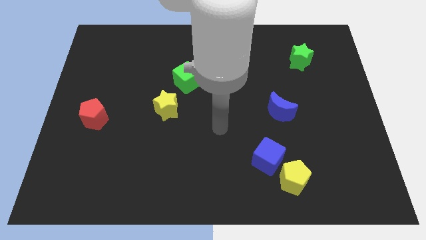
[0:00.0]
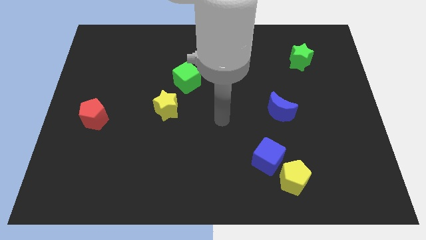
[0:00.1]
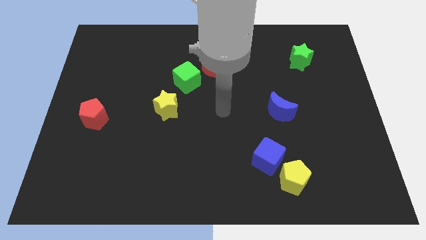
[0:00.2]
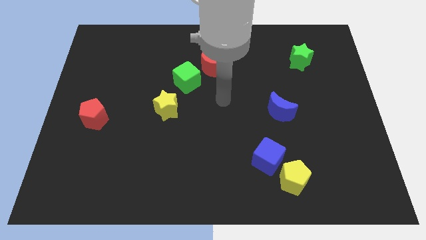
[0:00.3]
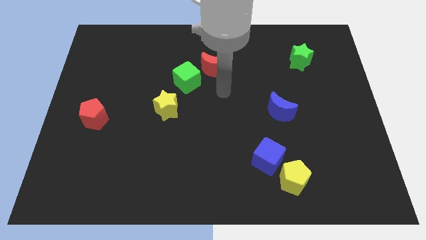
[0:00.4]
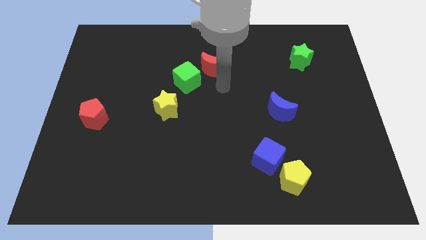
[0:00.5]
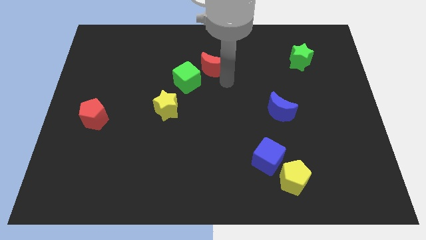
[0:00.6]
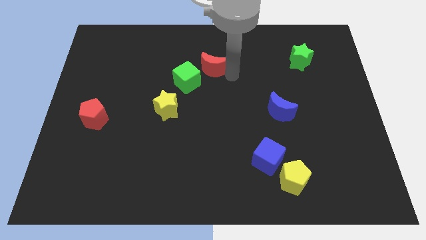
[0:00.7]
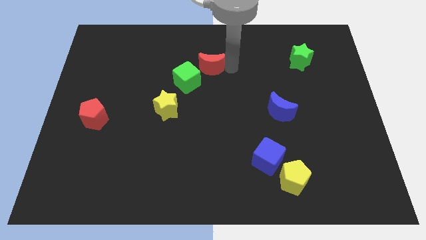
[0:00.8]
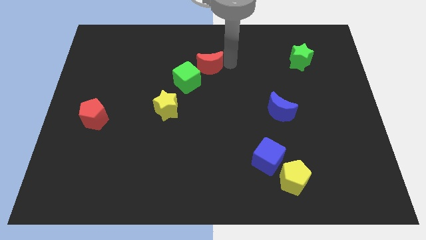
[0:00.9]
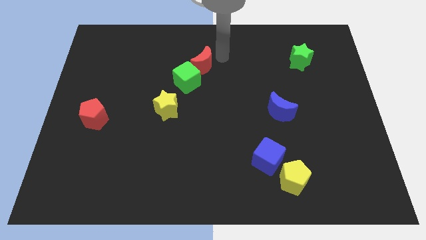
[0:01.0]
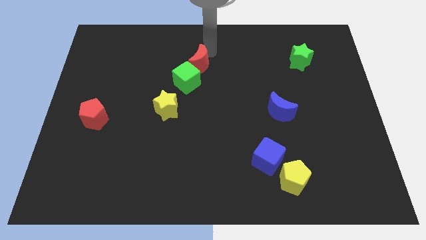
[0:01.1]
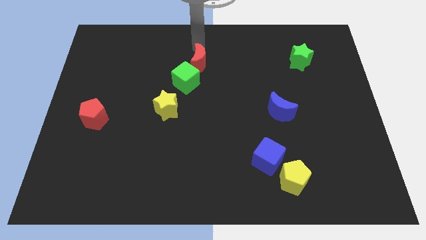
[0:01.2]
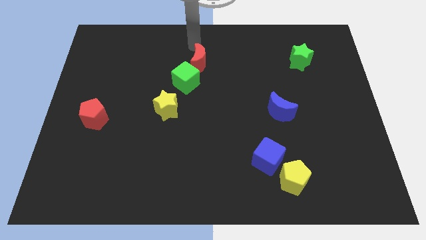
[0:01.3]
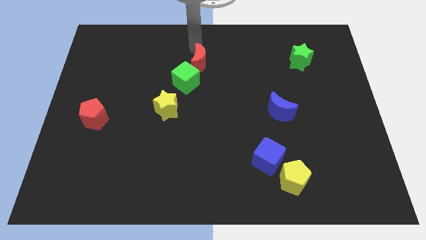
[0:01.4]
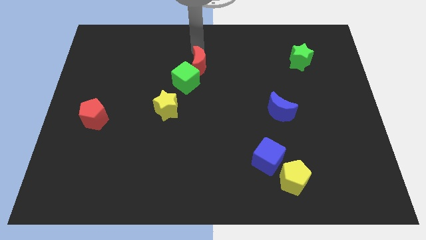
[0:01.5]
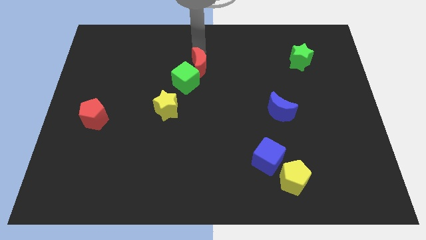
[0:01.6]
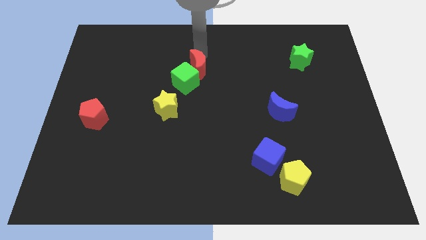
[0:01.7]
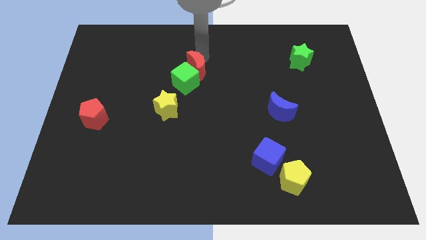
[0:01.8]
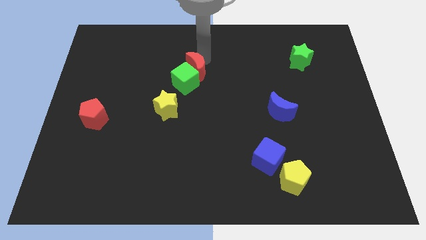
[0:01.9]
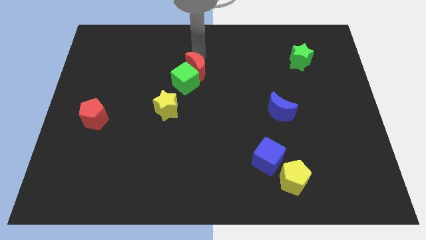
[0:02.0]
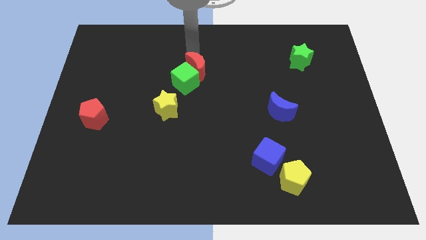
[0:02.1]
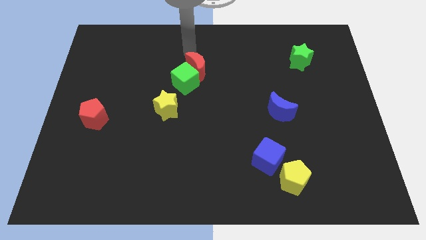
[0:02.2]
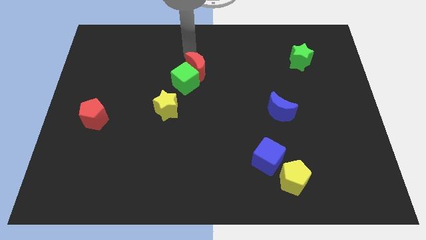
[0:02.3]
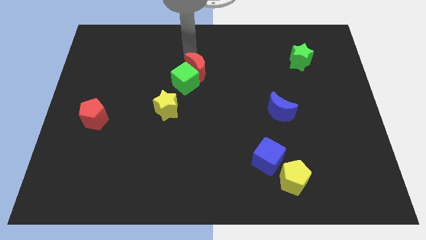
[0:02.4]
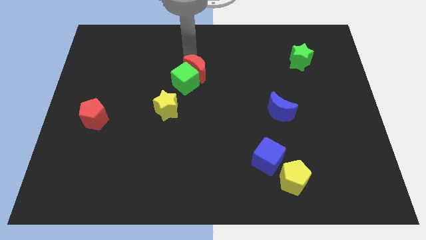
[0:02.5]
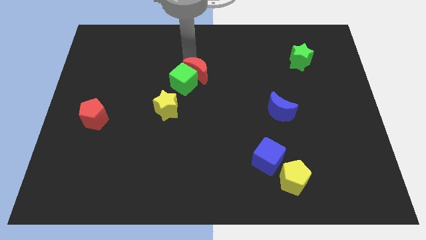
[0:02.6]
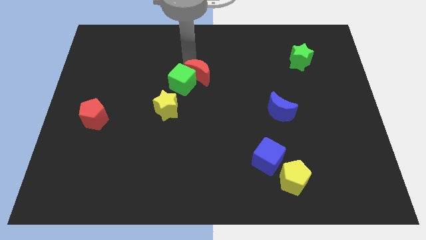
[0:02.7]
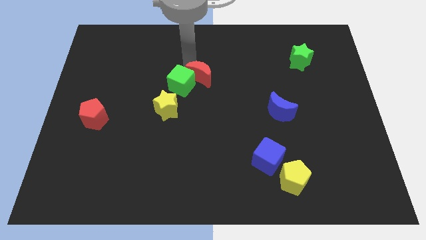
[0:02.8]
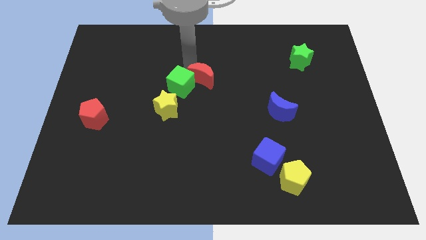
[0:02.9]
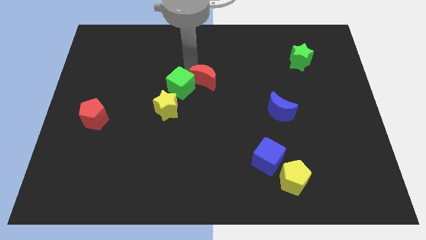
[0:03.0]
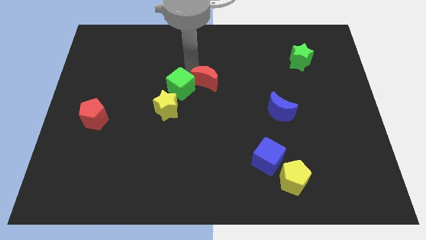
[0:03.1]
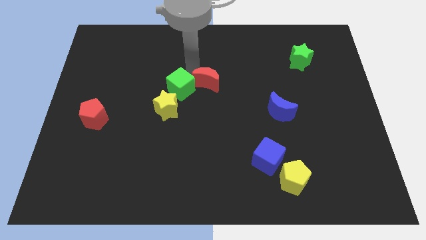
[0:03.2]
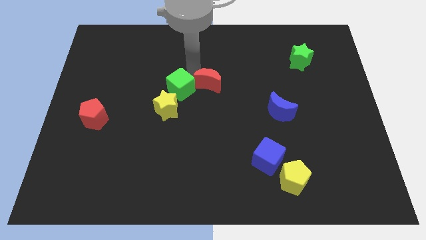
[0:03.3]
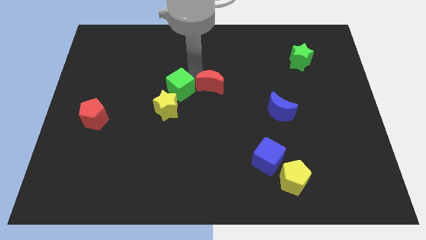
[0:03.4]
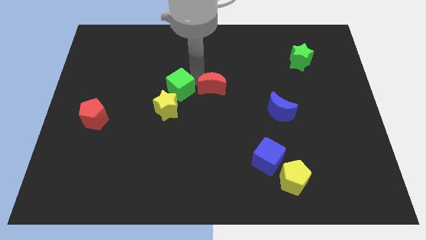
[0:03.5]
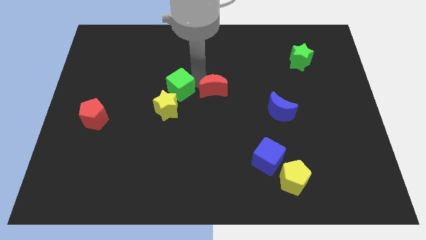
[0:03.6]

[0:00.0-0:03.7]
slightly move the red moon down

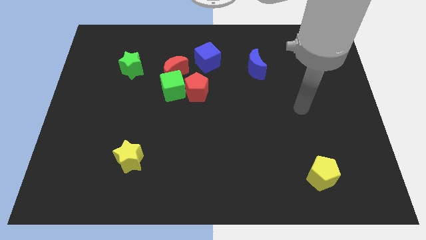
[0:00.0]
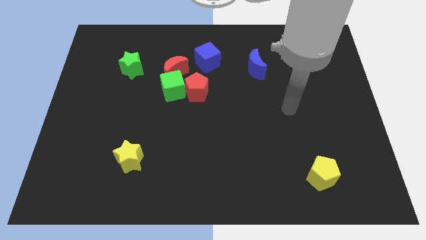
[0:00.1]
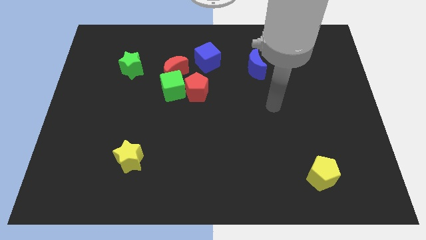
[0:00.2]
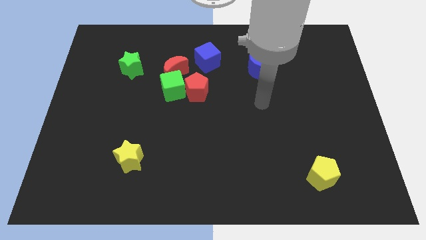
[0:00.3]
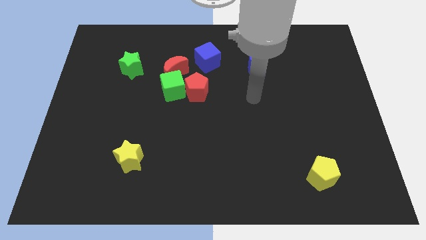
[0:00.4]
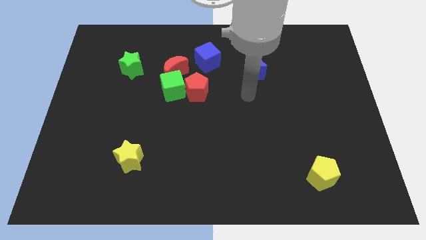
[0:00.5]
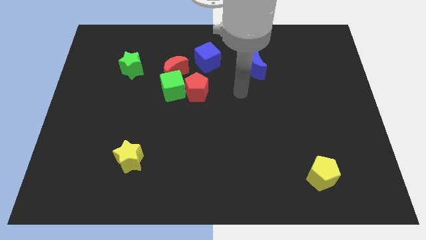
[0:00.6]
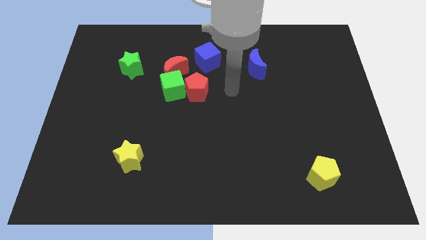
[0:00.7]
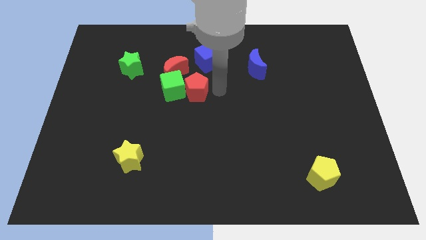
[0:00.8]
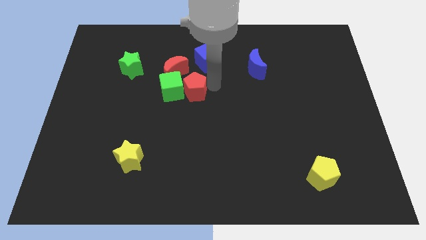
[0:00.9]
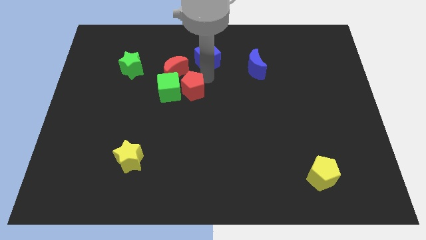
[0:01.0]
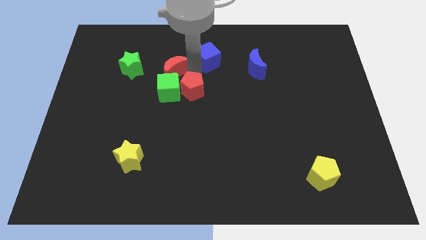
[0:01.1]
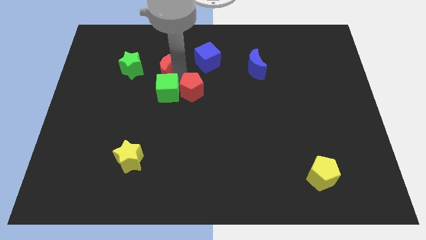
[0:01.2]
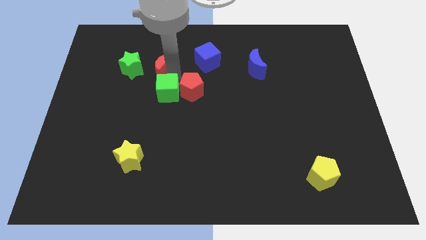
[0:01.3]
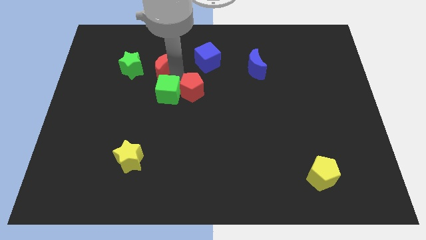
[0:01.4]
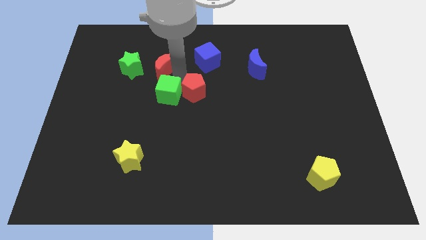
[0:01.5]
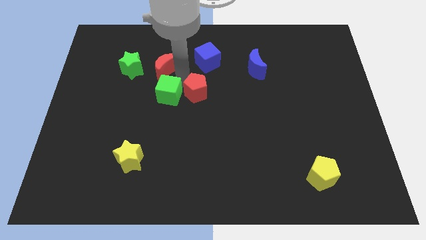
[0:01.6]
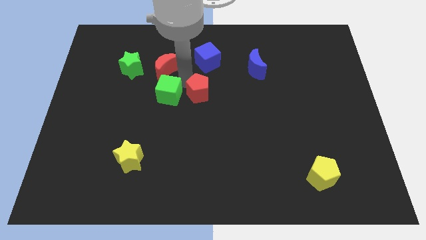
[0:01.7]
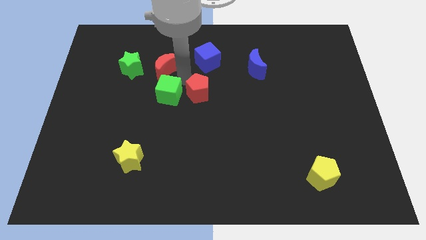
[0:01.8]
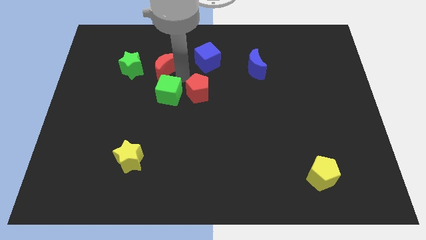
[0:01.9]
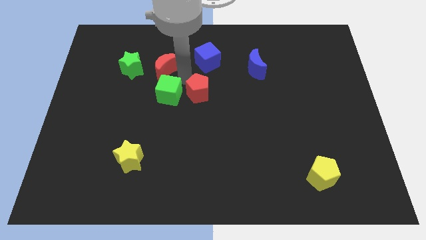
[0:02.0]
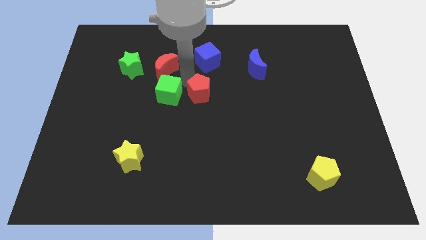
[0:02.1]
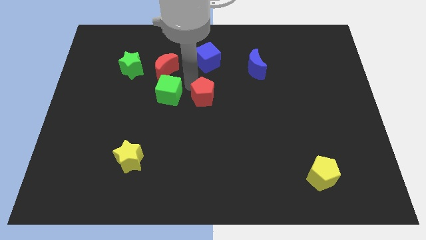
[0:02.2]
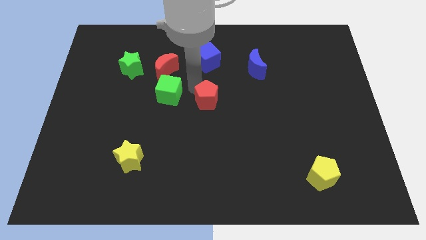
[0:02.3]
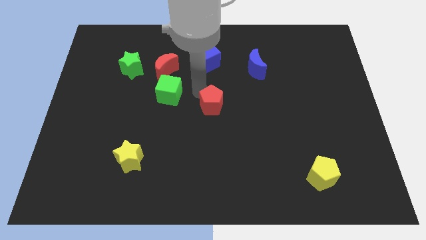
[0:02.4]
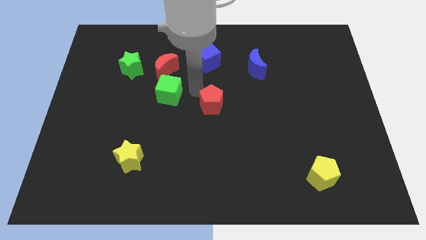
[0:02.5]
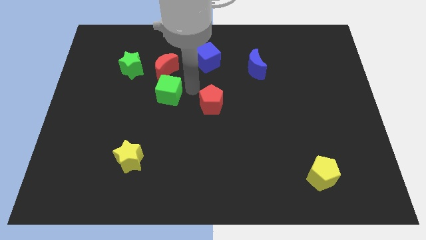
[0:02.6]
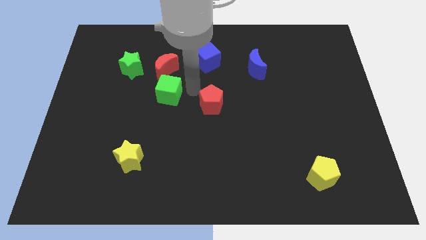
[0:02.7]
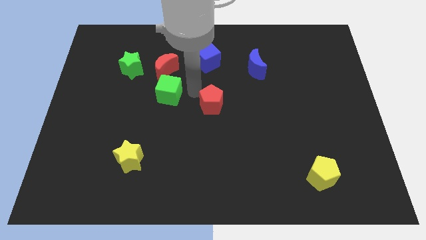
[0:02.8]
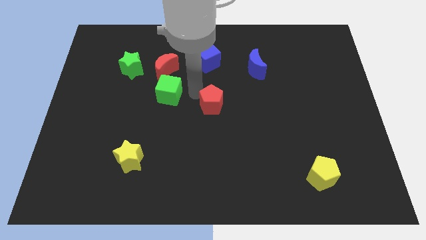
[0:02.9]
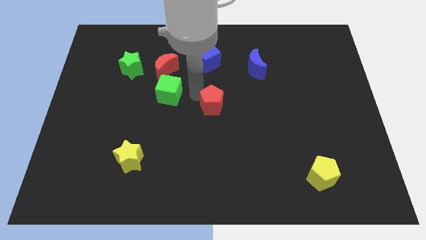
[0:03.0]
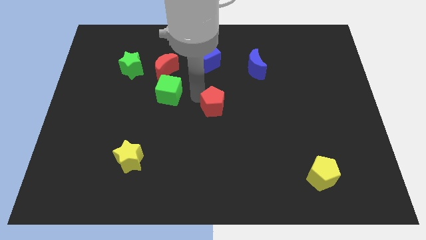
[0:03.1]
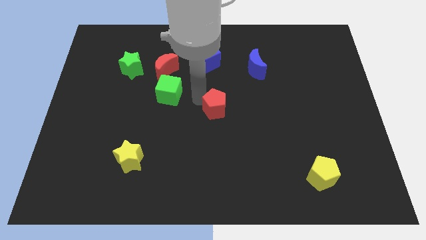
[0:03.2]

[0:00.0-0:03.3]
push the red pentagon slightly diagonally down and right

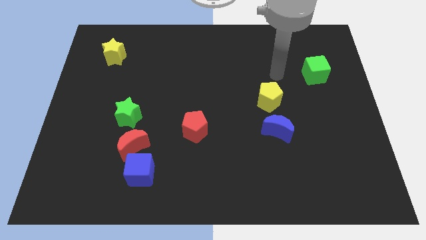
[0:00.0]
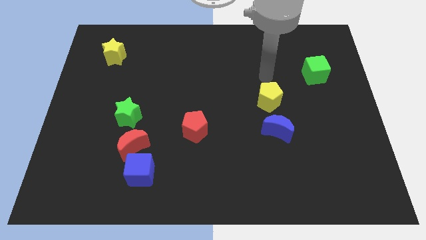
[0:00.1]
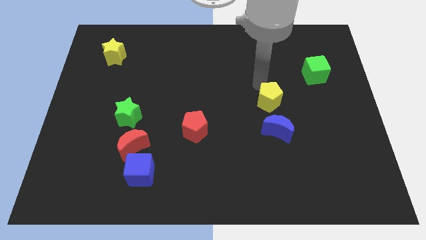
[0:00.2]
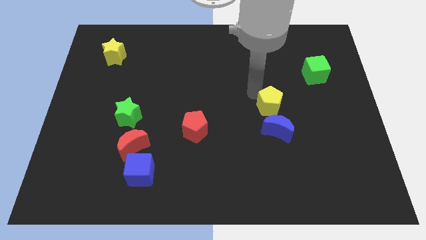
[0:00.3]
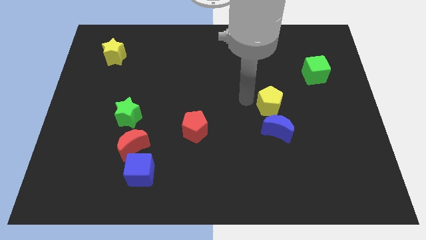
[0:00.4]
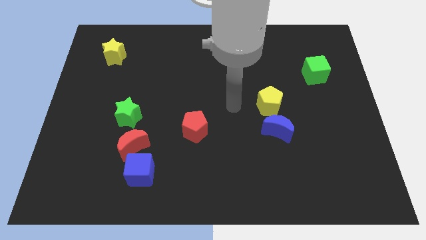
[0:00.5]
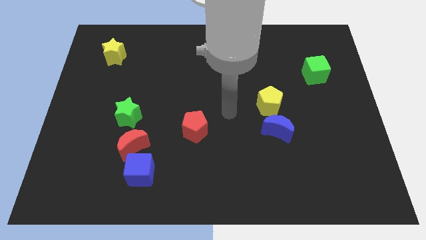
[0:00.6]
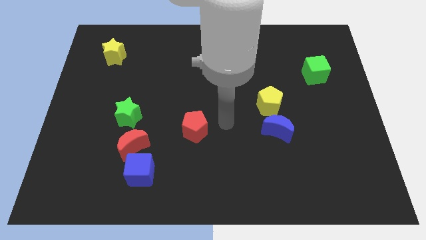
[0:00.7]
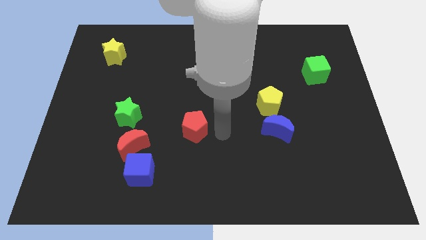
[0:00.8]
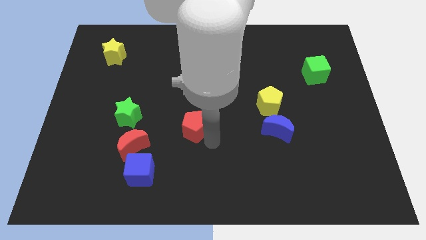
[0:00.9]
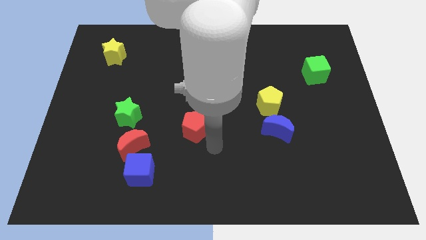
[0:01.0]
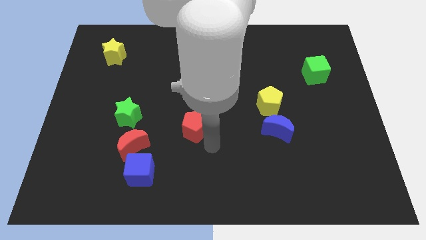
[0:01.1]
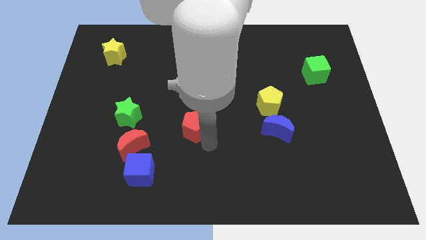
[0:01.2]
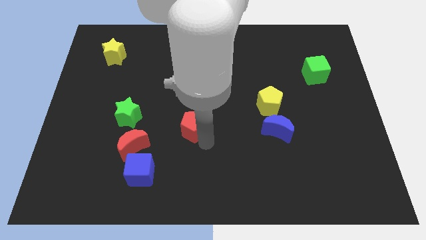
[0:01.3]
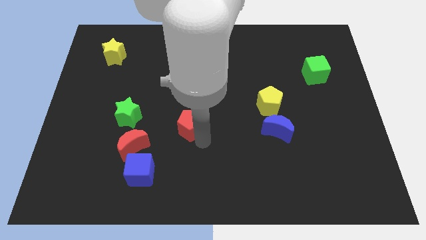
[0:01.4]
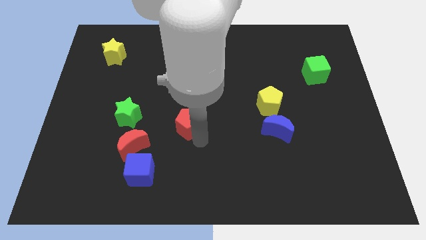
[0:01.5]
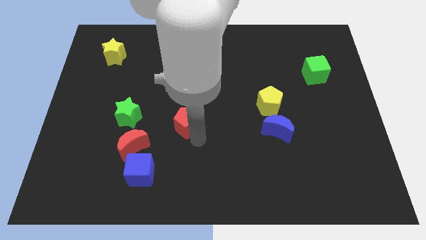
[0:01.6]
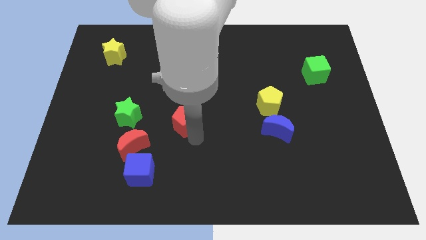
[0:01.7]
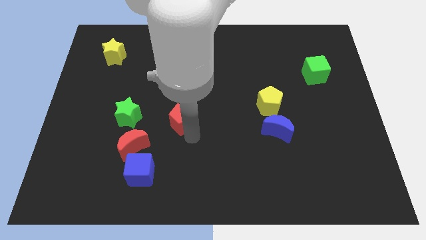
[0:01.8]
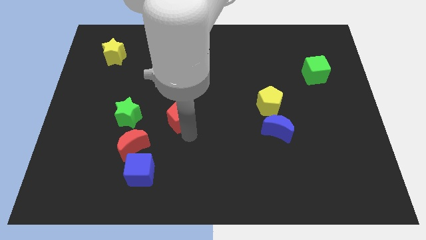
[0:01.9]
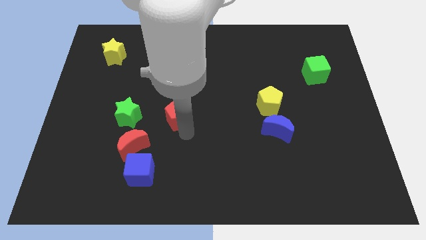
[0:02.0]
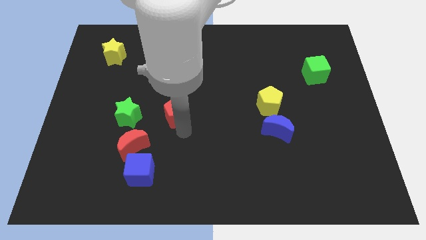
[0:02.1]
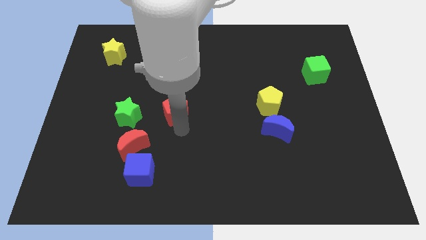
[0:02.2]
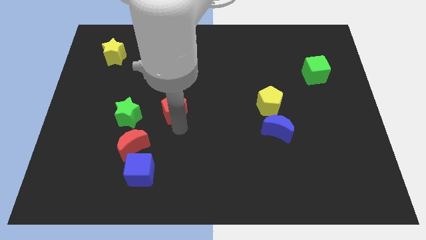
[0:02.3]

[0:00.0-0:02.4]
slide the red pentagon up and to the left diagonally a little bit
